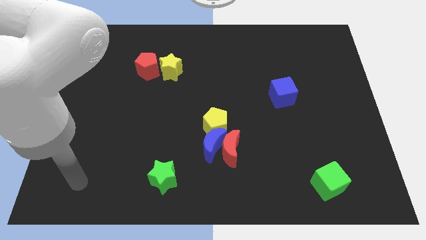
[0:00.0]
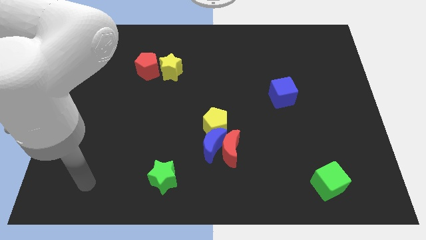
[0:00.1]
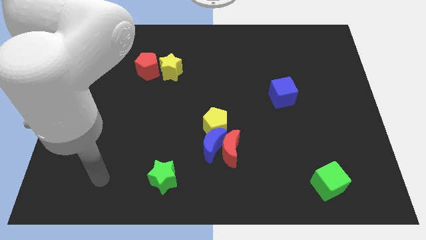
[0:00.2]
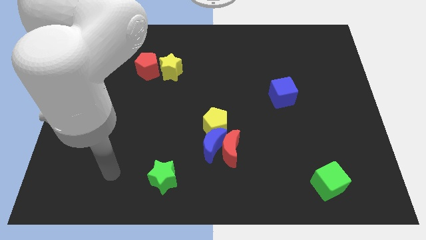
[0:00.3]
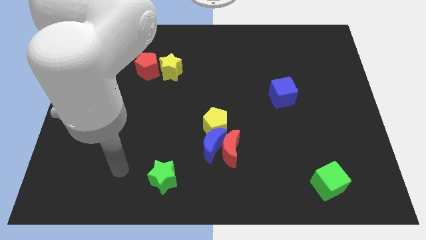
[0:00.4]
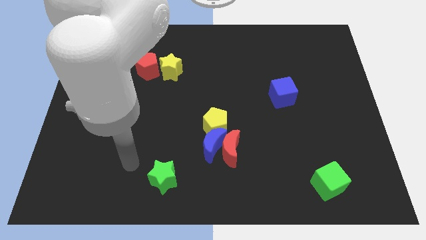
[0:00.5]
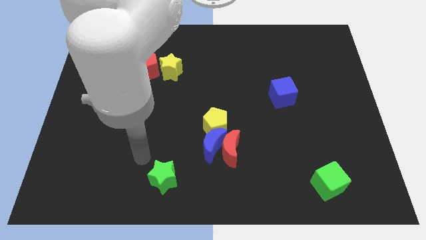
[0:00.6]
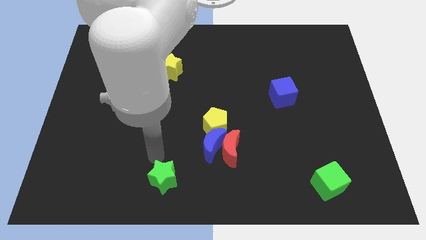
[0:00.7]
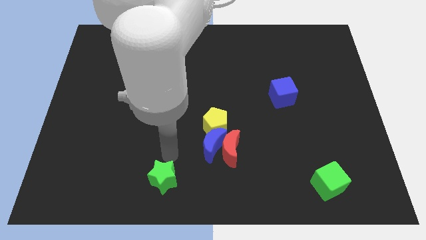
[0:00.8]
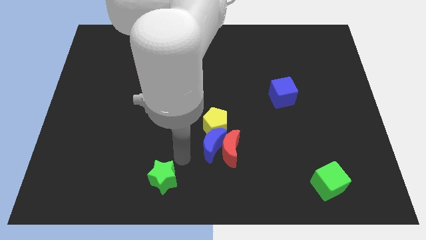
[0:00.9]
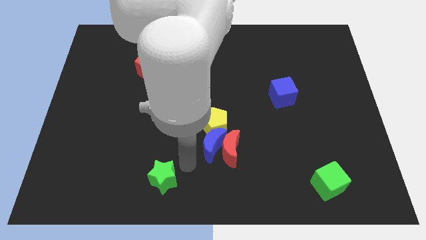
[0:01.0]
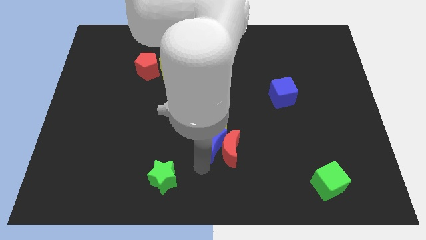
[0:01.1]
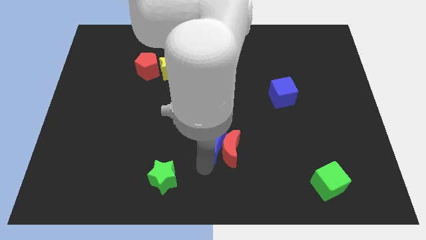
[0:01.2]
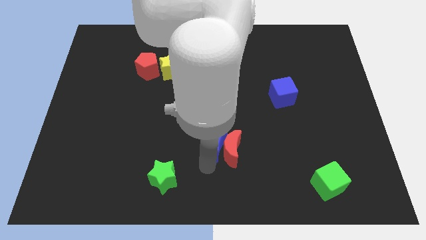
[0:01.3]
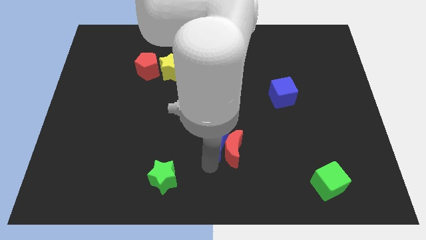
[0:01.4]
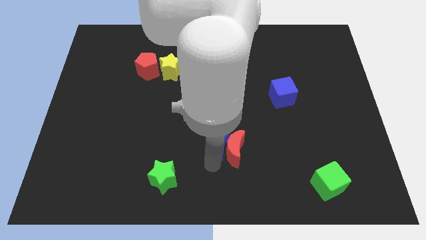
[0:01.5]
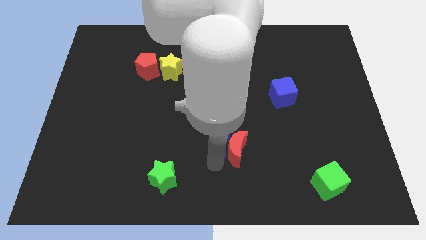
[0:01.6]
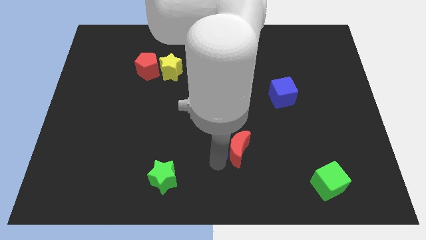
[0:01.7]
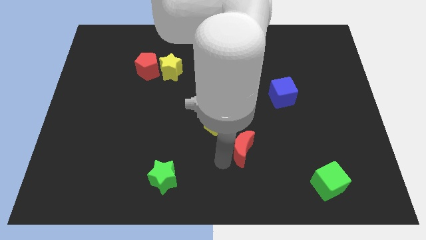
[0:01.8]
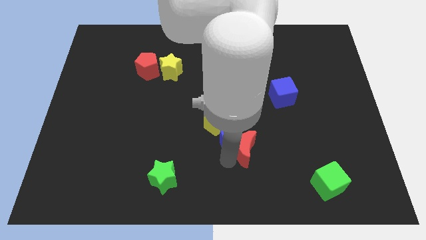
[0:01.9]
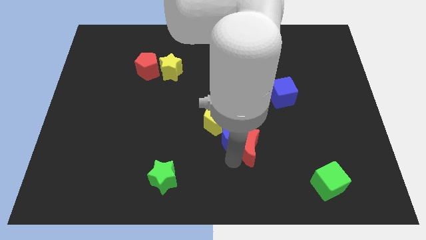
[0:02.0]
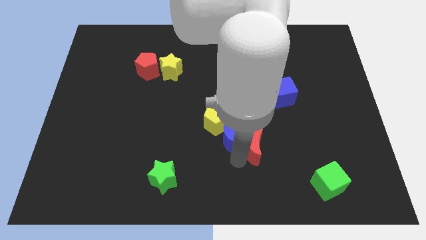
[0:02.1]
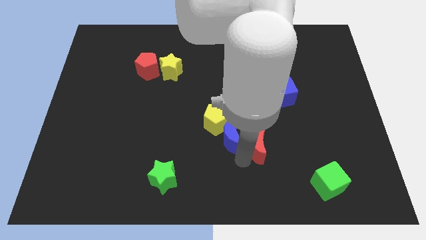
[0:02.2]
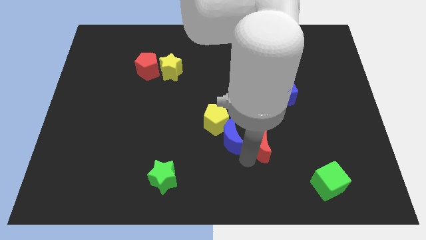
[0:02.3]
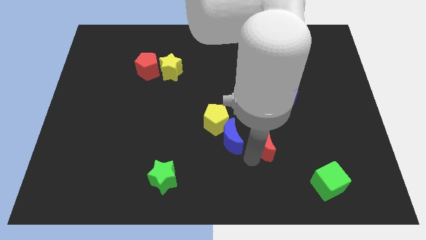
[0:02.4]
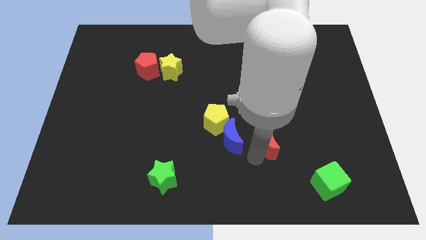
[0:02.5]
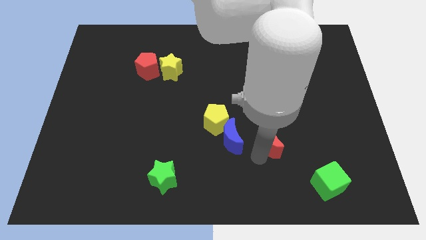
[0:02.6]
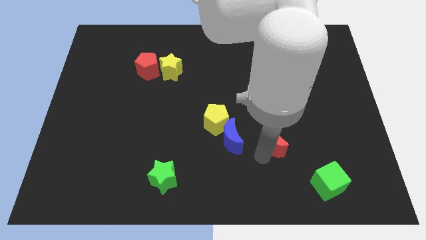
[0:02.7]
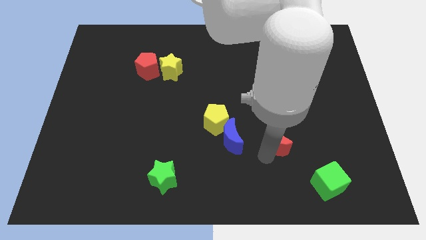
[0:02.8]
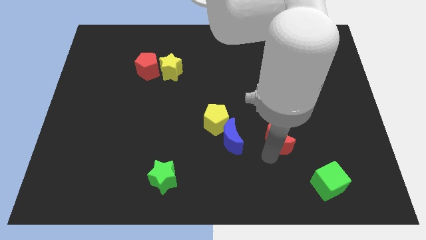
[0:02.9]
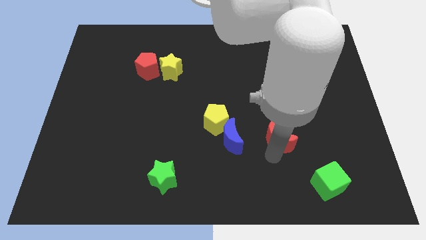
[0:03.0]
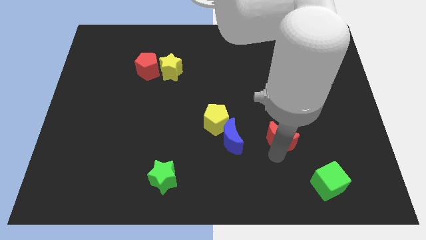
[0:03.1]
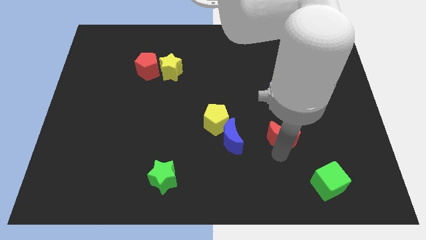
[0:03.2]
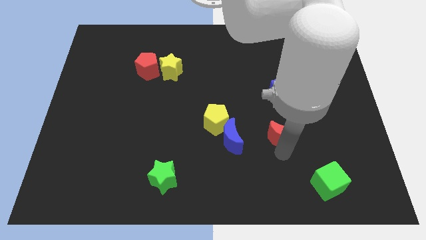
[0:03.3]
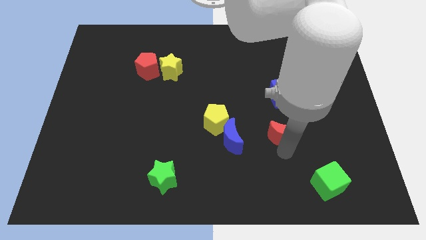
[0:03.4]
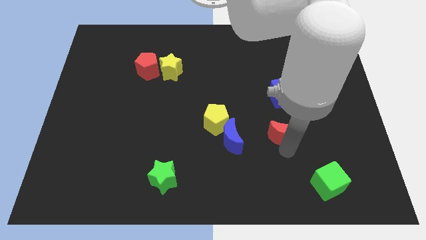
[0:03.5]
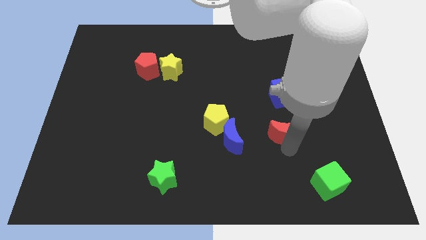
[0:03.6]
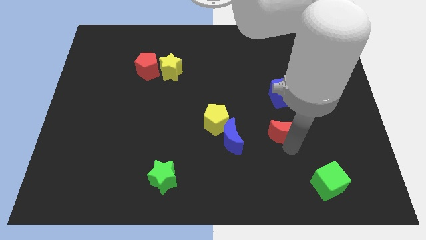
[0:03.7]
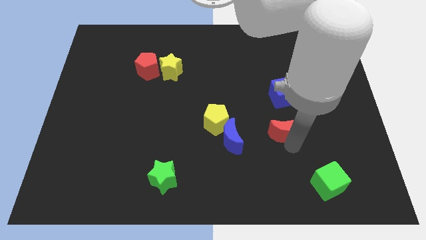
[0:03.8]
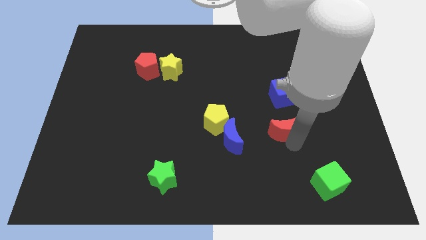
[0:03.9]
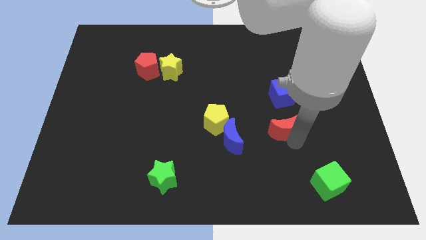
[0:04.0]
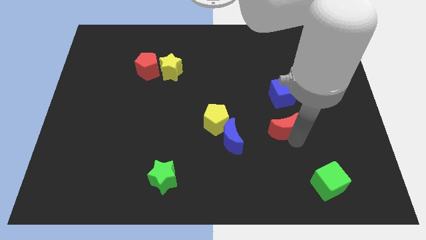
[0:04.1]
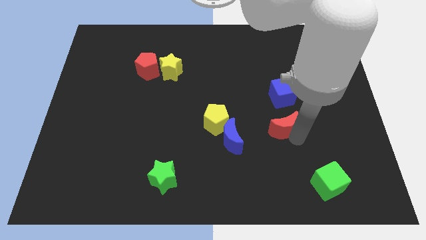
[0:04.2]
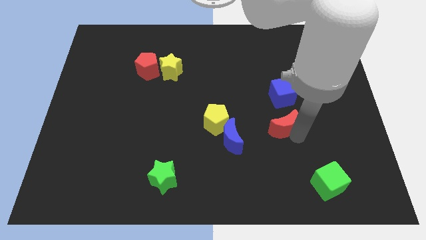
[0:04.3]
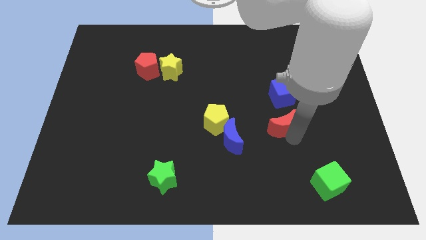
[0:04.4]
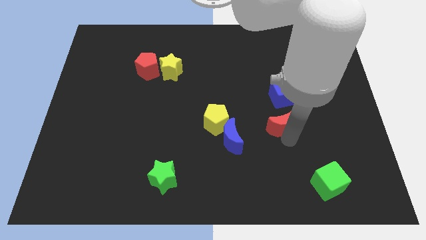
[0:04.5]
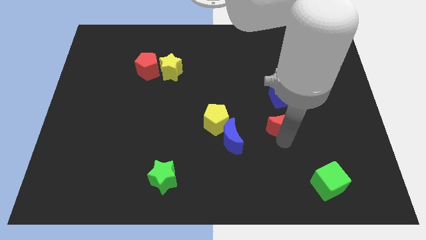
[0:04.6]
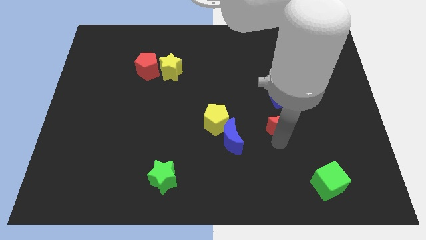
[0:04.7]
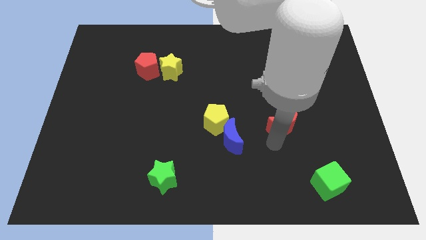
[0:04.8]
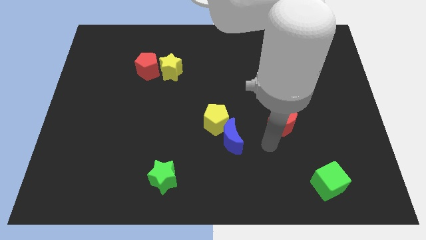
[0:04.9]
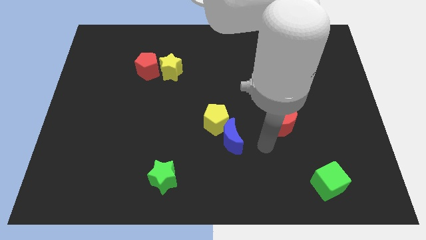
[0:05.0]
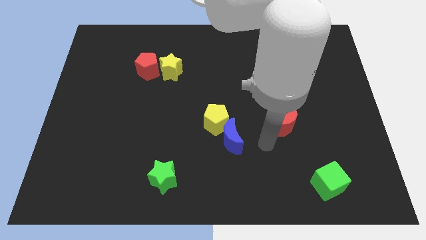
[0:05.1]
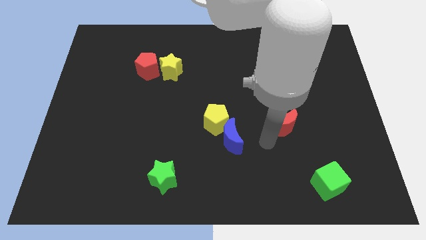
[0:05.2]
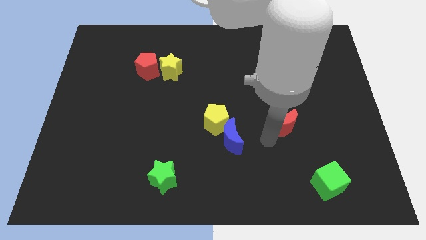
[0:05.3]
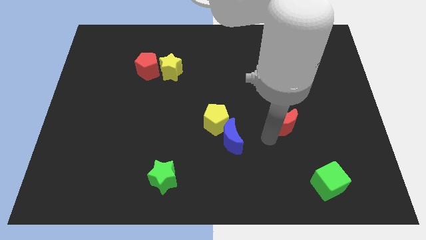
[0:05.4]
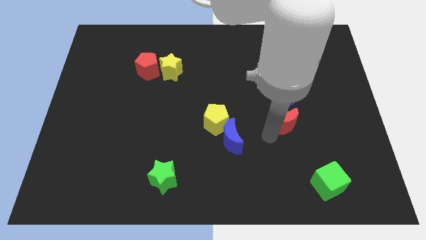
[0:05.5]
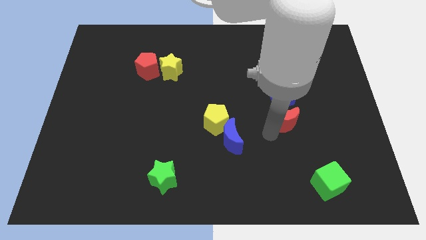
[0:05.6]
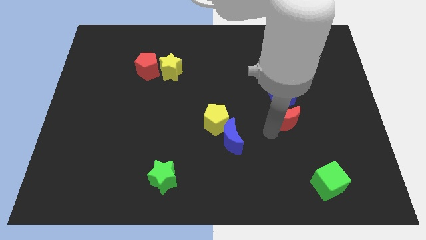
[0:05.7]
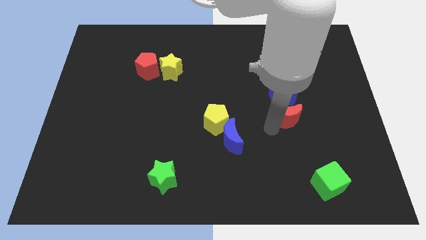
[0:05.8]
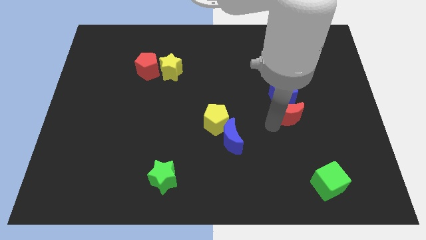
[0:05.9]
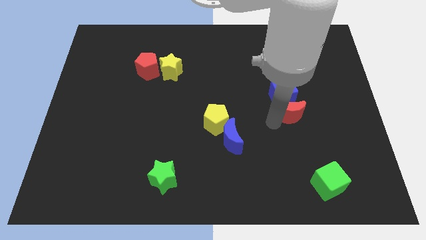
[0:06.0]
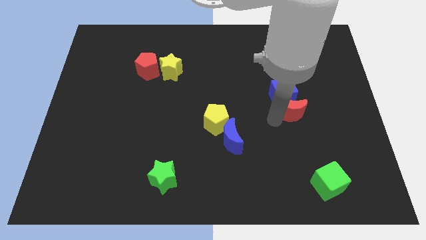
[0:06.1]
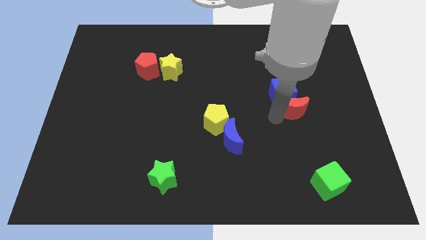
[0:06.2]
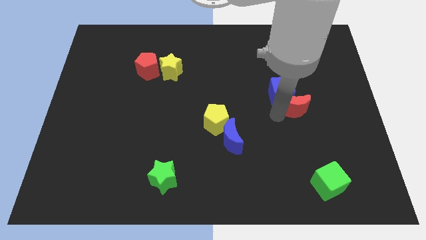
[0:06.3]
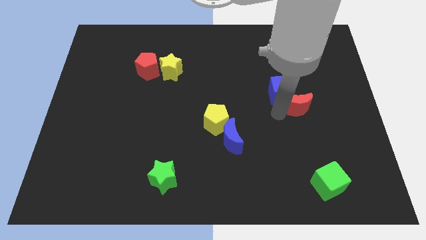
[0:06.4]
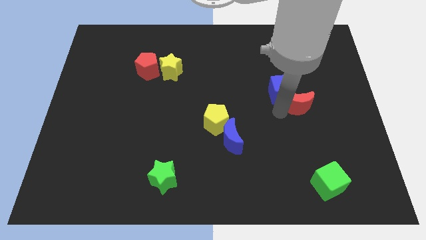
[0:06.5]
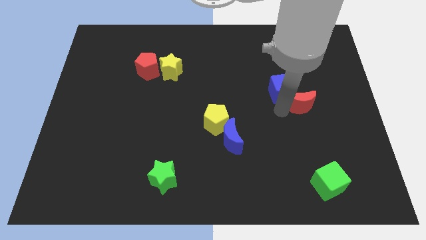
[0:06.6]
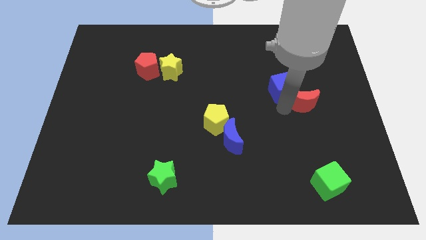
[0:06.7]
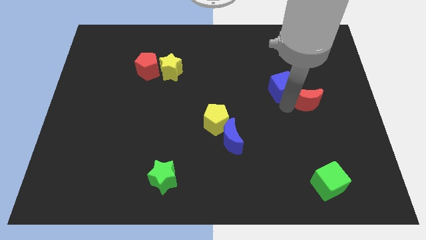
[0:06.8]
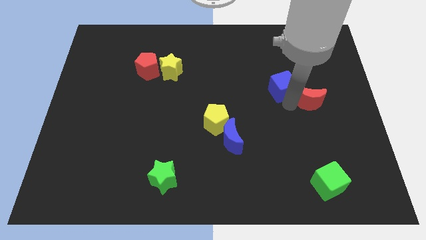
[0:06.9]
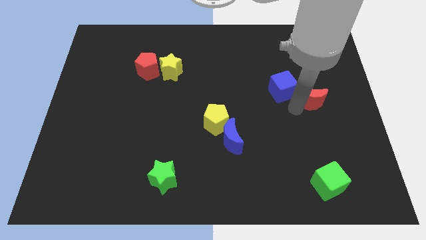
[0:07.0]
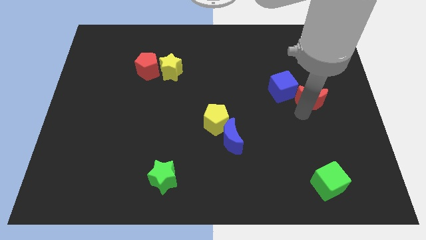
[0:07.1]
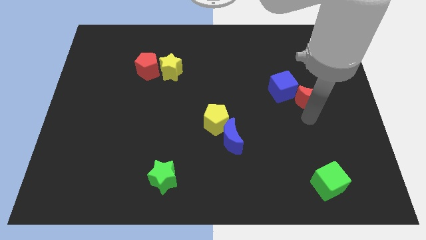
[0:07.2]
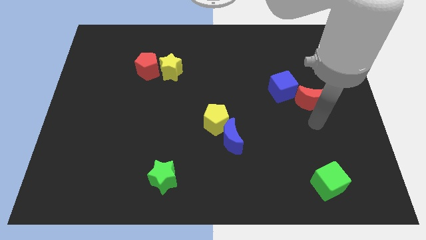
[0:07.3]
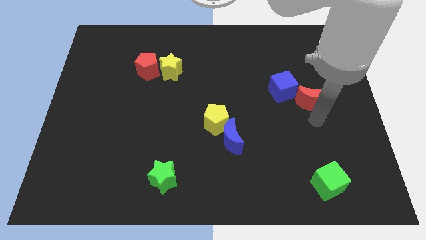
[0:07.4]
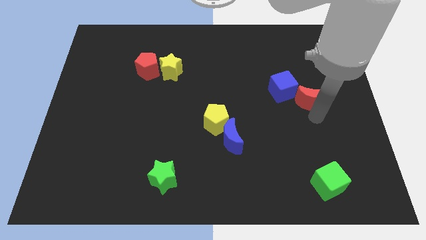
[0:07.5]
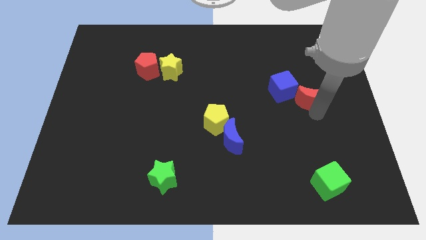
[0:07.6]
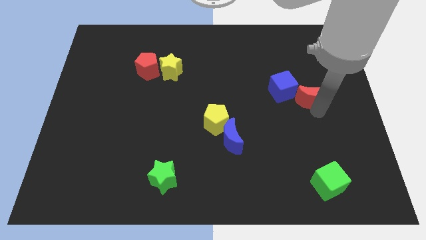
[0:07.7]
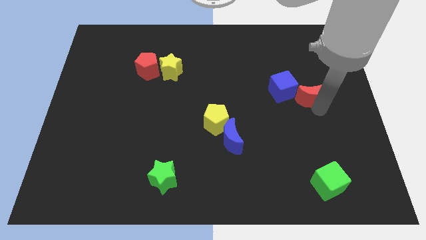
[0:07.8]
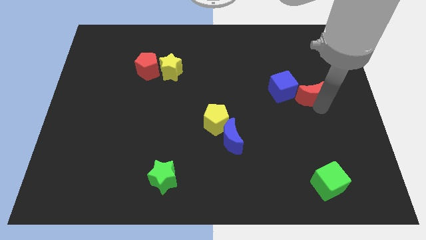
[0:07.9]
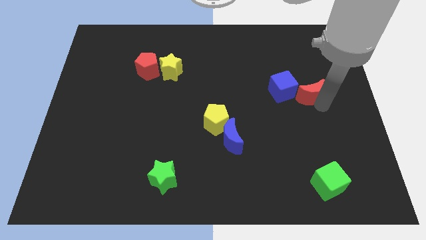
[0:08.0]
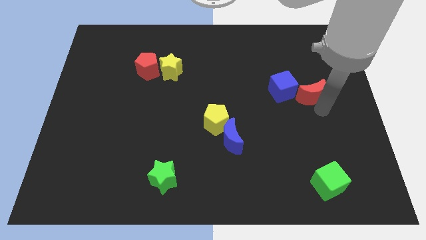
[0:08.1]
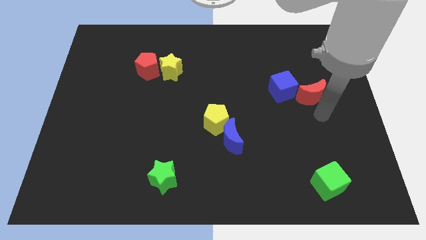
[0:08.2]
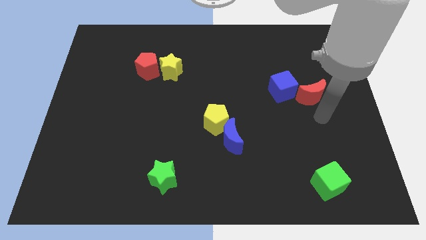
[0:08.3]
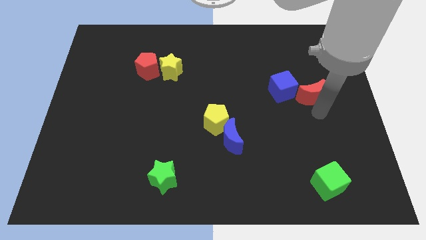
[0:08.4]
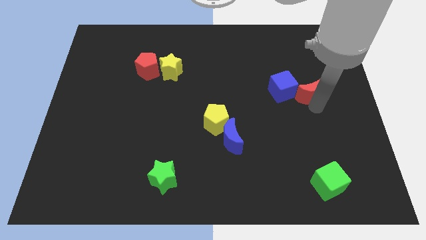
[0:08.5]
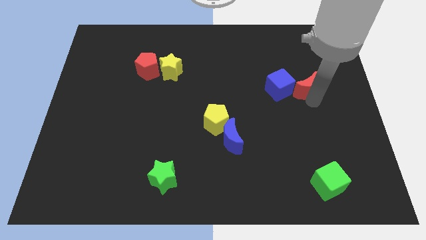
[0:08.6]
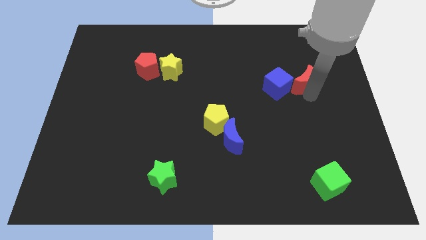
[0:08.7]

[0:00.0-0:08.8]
put the red moon to the top right of the blue cube
